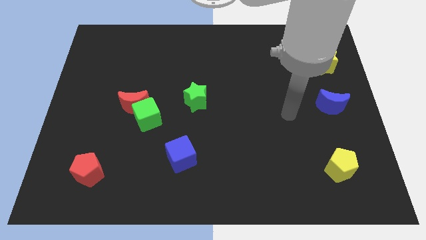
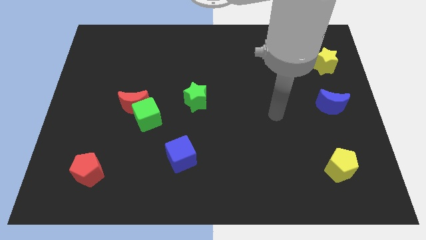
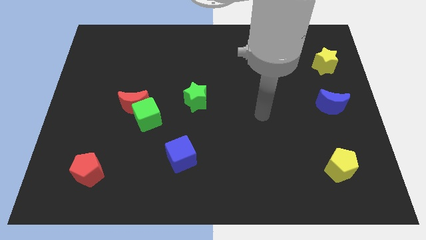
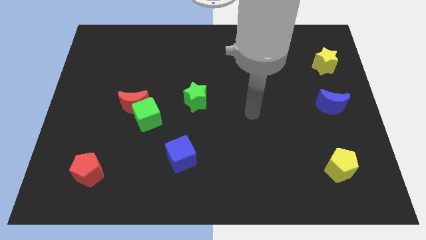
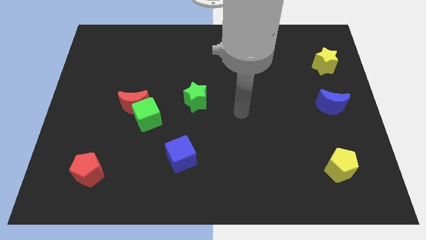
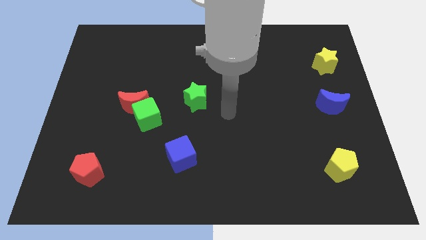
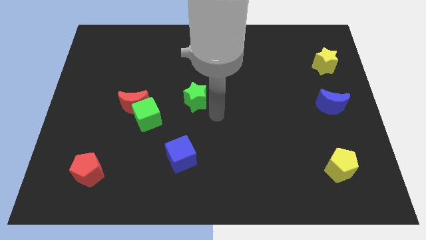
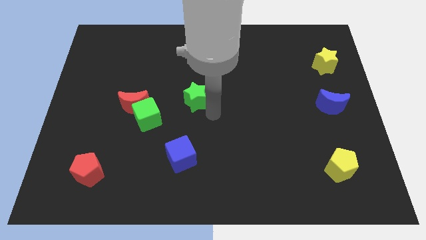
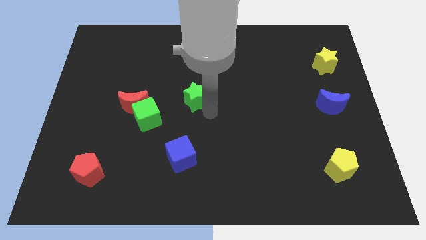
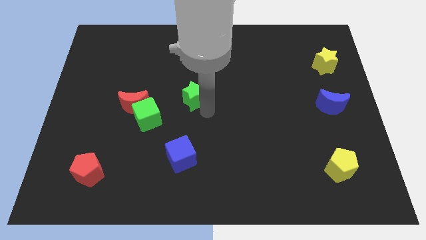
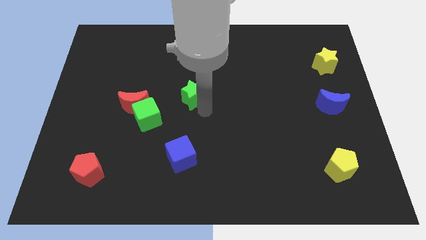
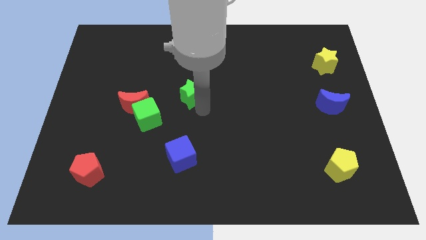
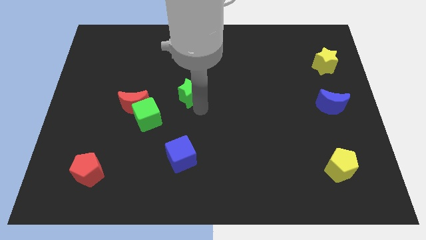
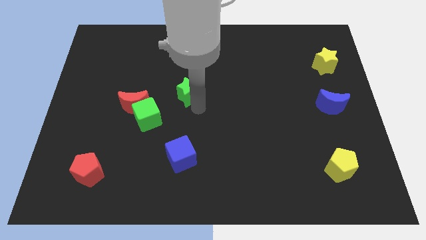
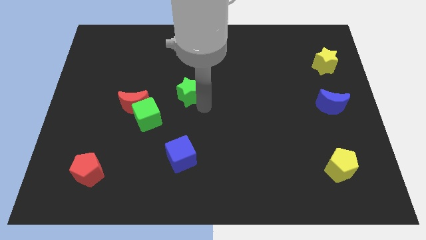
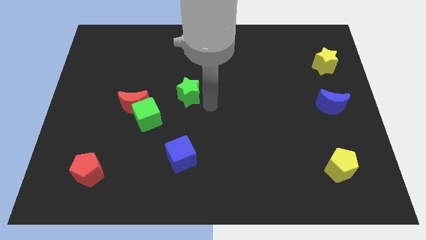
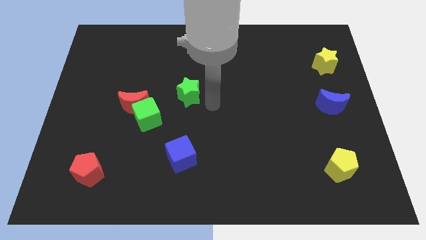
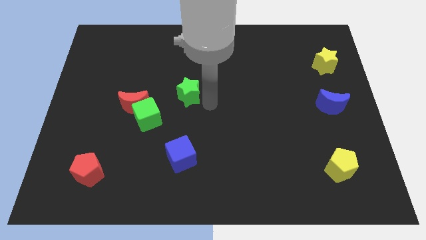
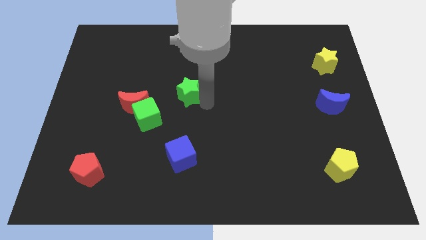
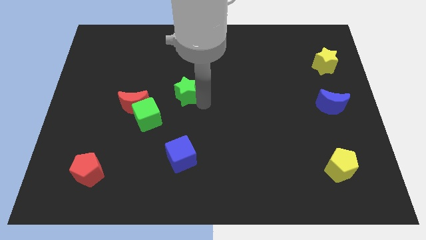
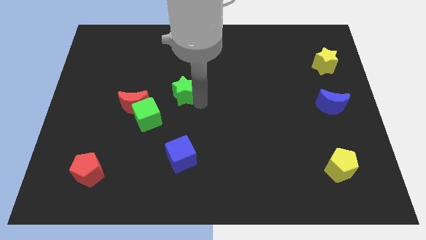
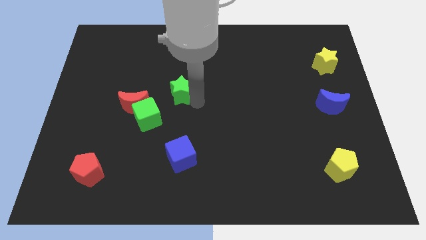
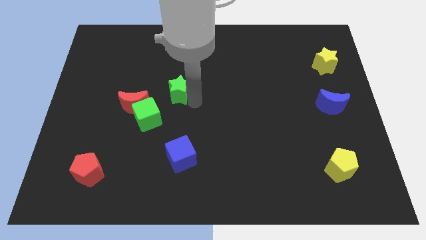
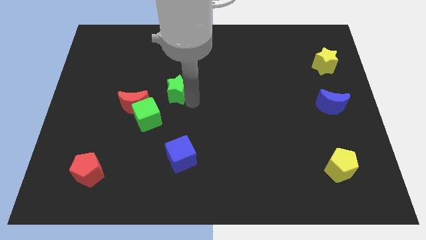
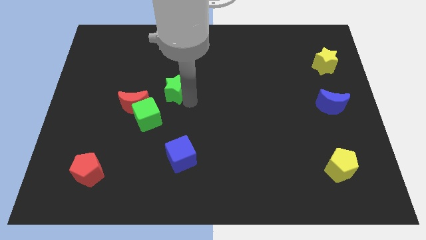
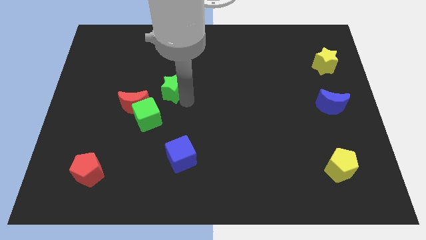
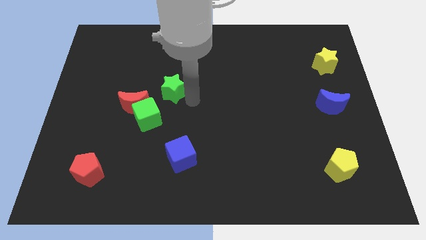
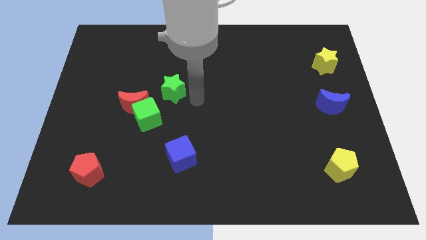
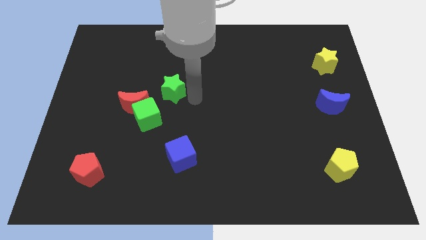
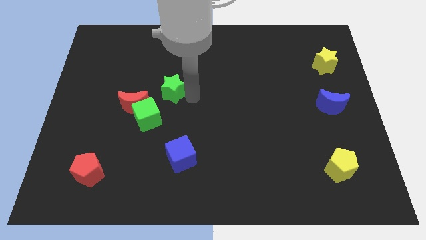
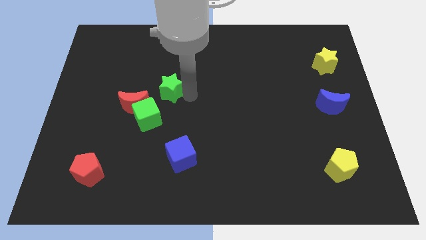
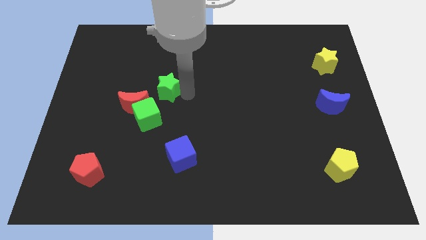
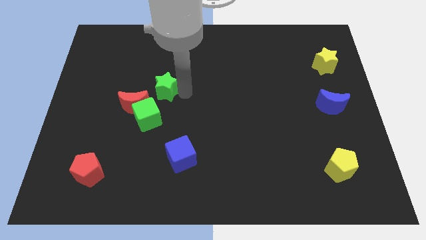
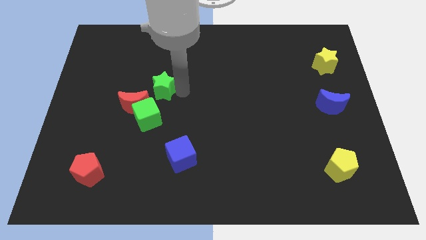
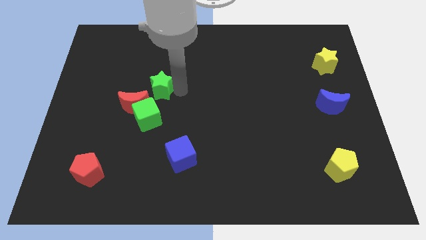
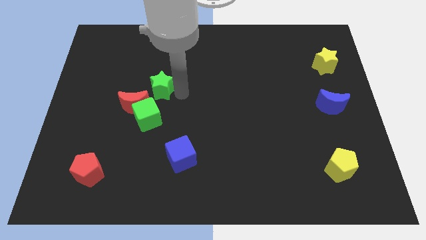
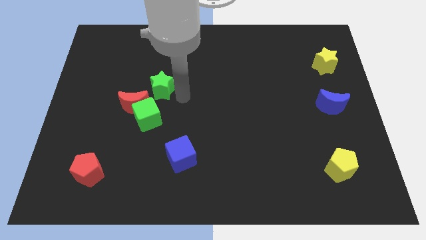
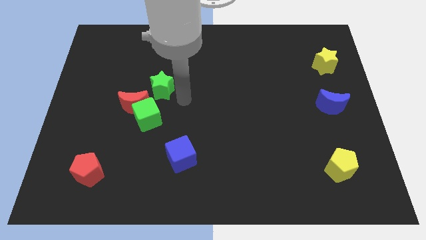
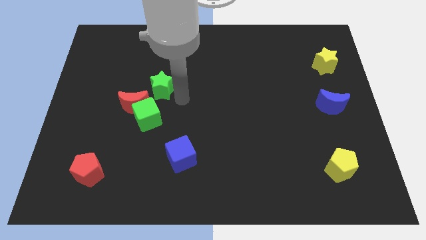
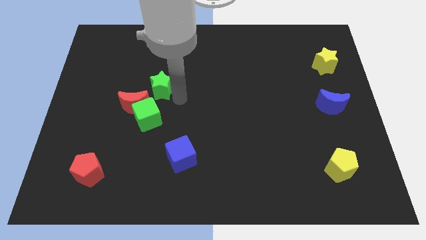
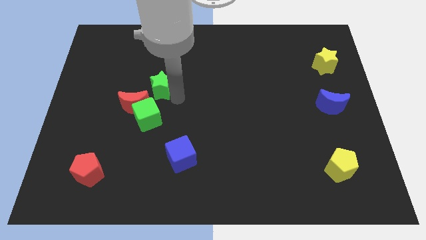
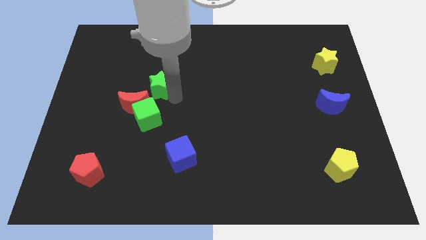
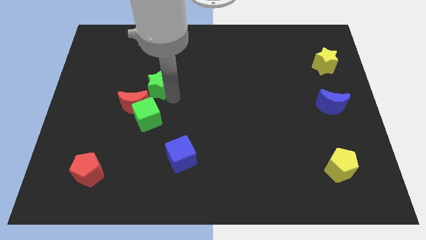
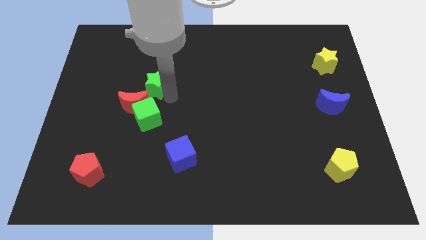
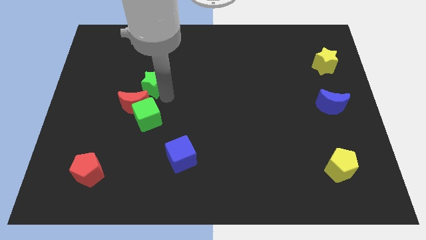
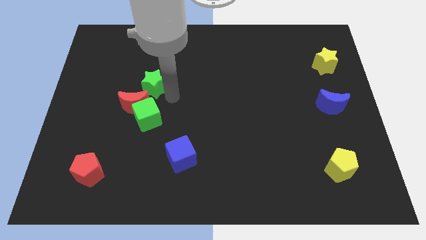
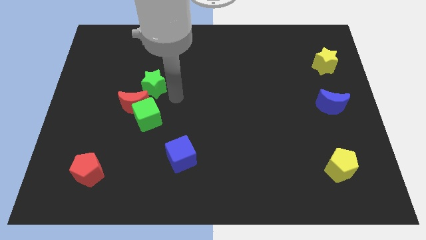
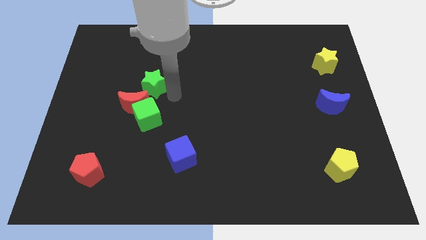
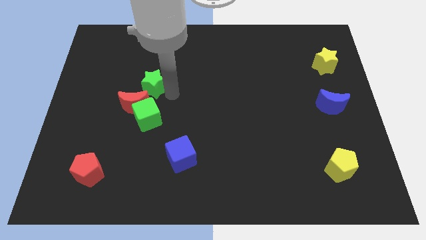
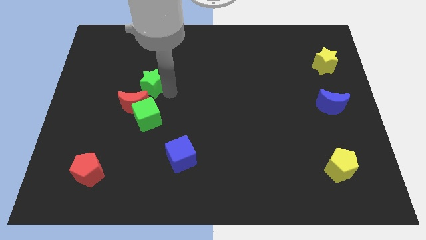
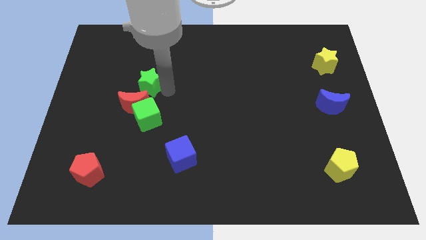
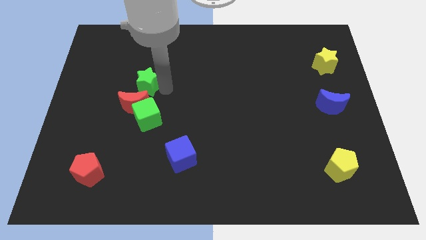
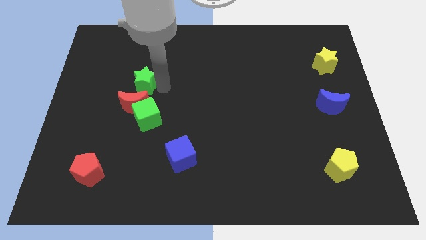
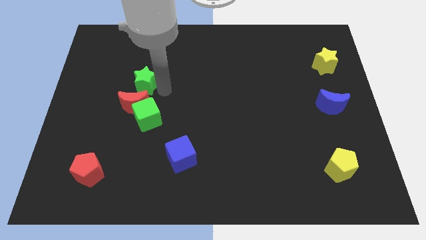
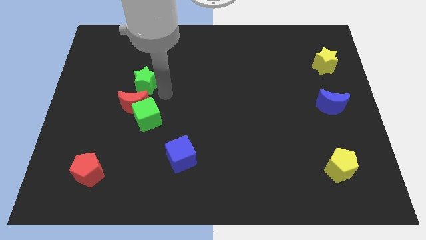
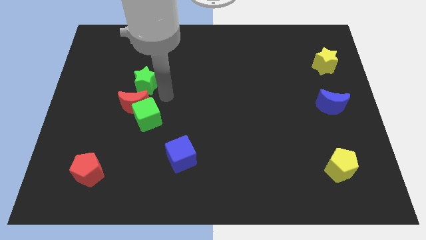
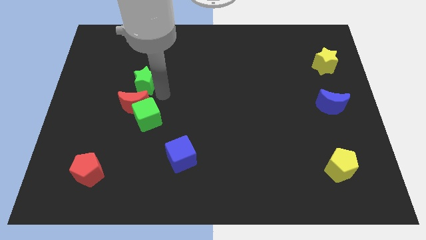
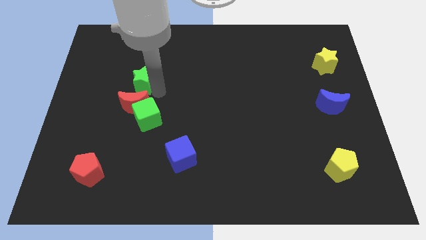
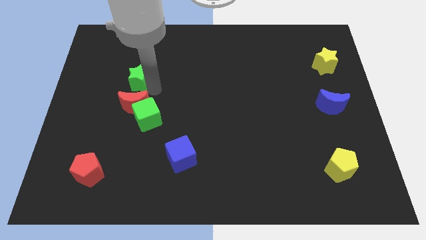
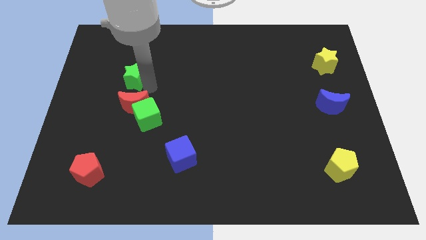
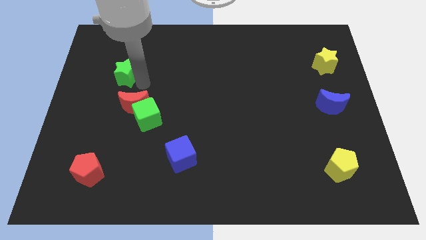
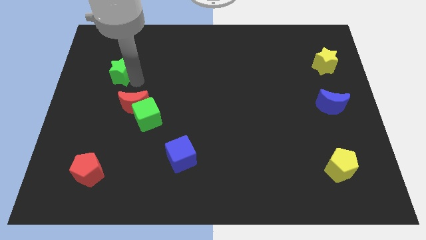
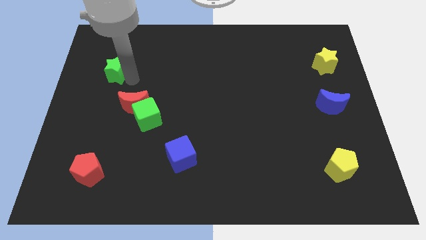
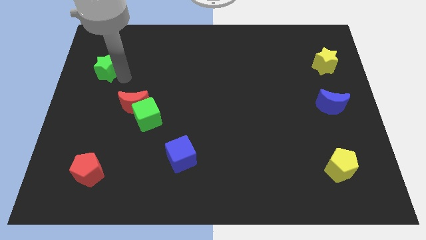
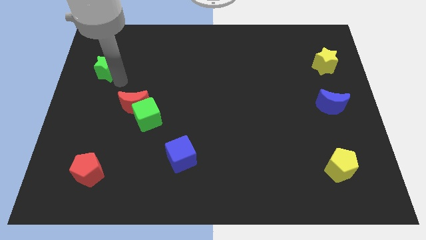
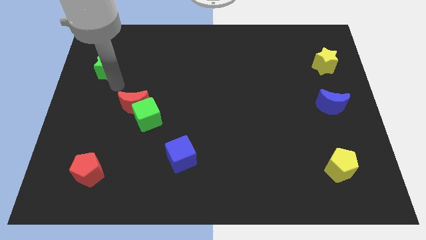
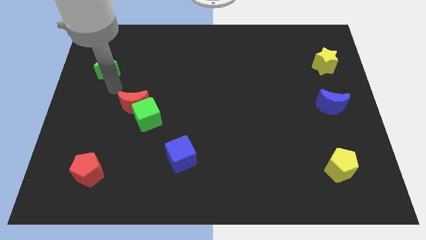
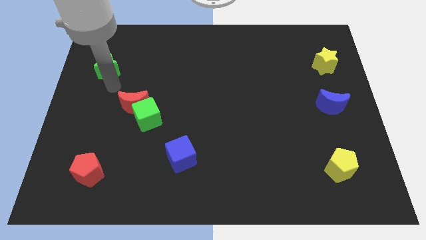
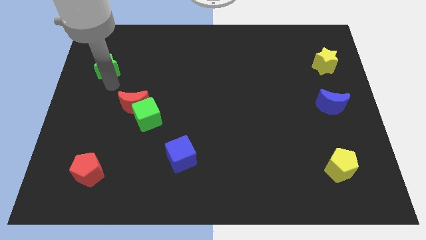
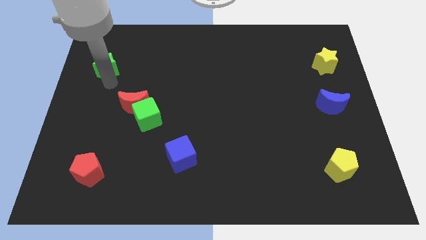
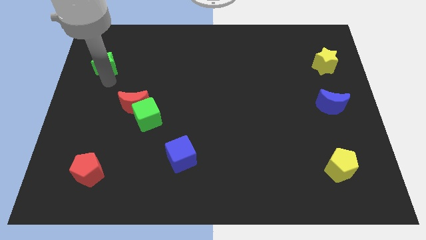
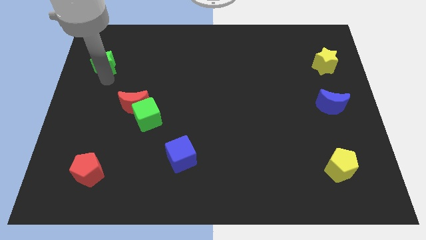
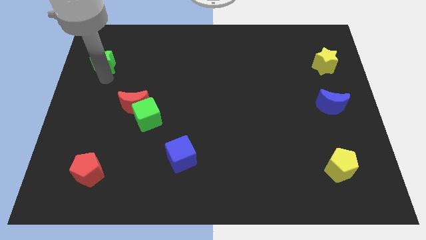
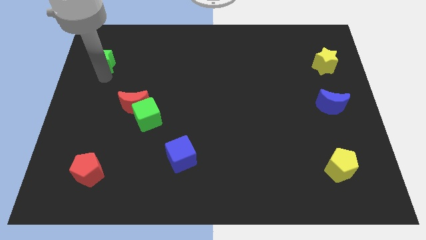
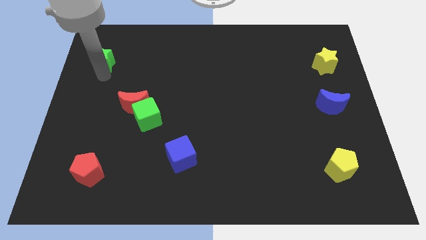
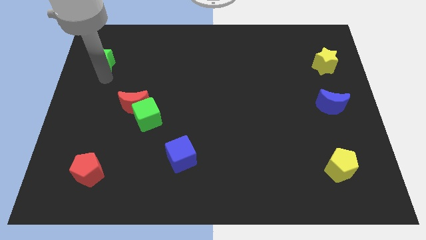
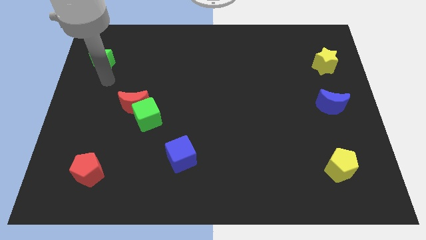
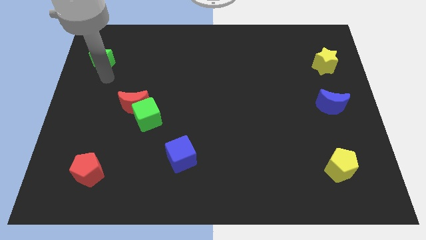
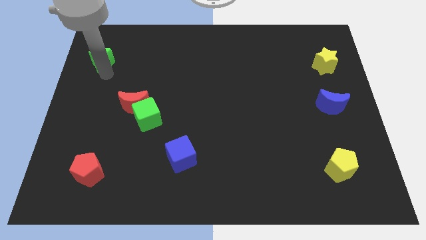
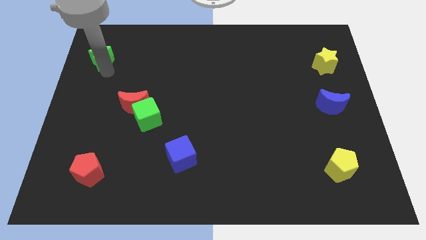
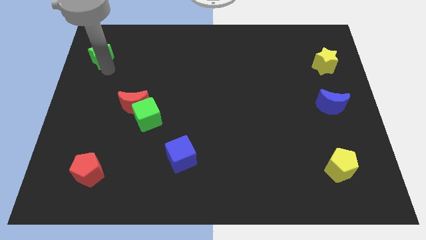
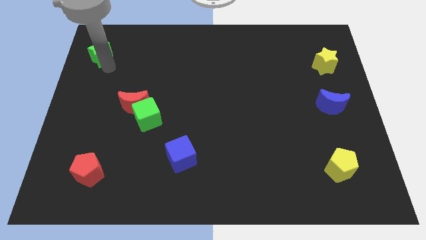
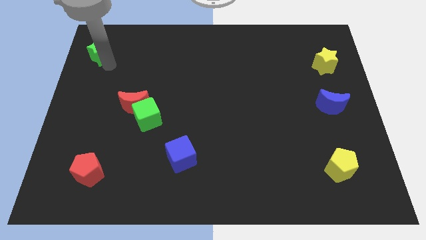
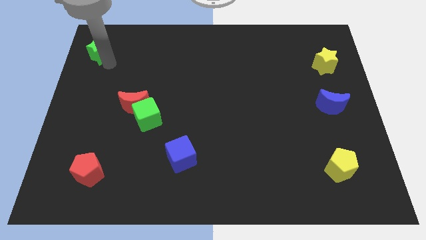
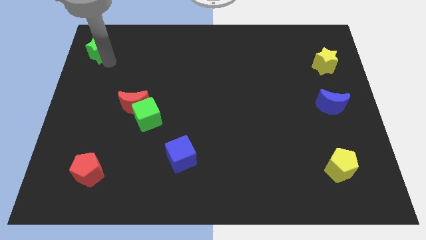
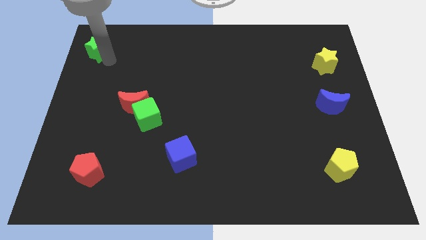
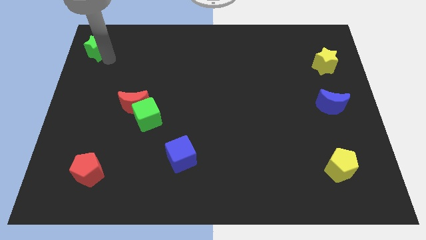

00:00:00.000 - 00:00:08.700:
slide the green star to the upper left corner
